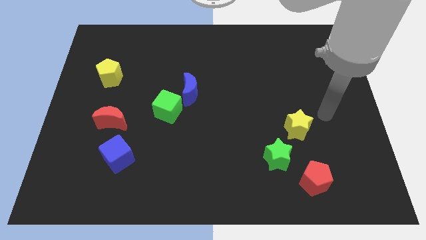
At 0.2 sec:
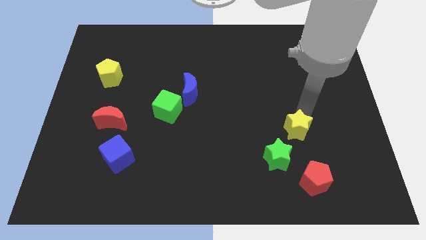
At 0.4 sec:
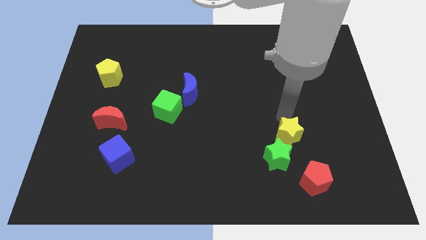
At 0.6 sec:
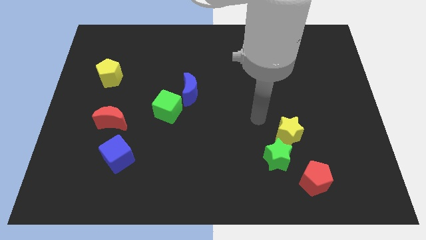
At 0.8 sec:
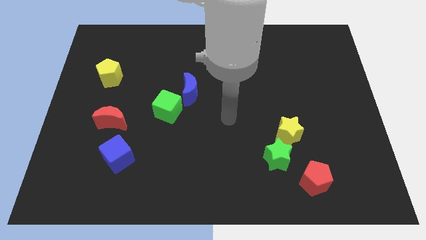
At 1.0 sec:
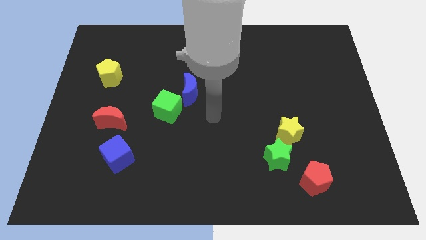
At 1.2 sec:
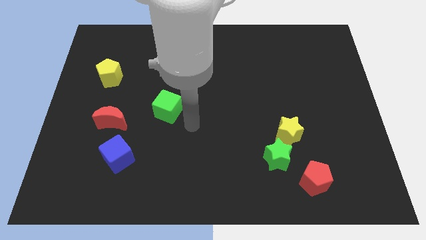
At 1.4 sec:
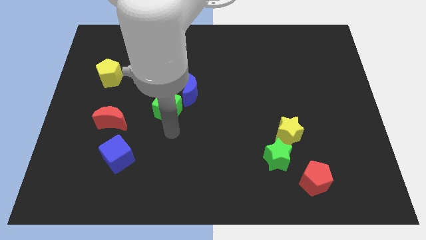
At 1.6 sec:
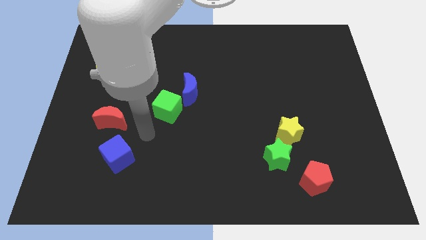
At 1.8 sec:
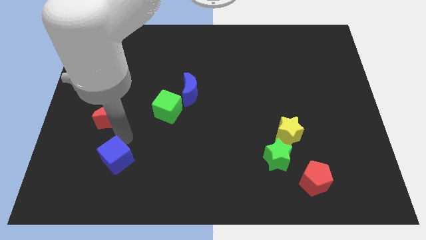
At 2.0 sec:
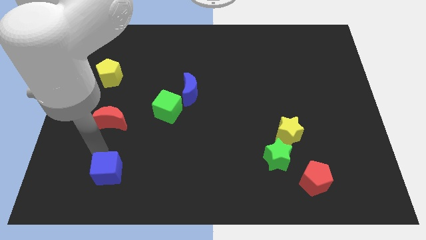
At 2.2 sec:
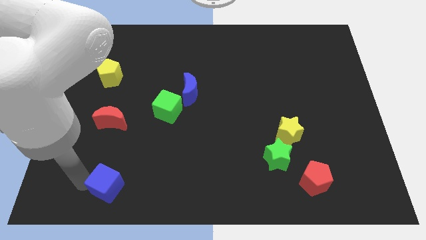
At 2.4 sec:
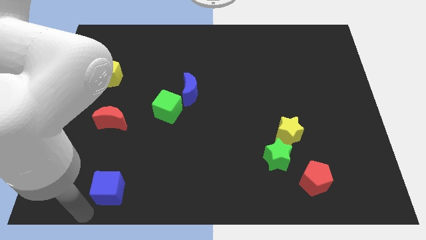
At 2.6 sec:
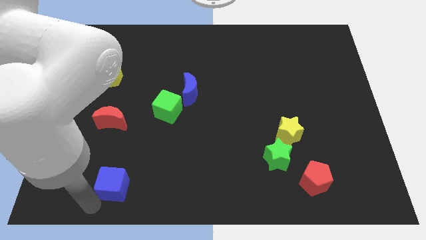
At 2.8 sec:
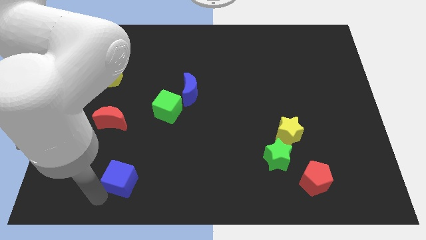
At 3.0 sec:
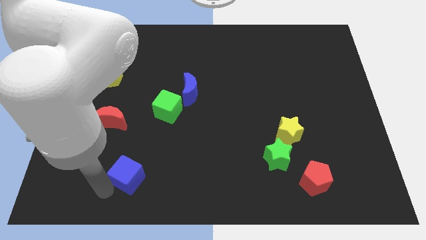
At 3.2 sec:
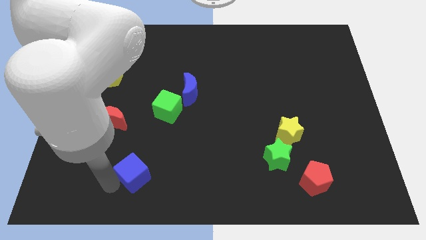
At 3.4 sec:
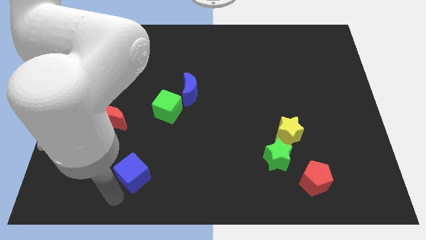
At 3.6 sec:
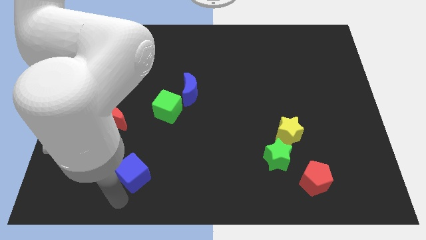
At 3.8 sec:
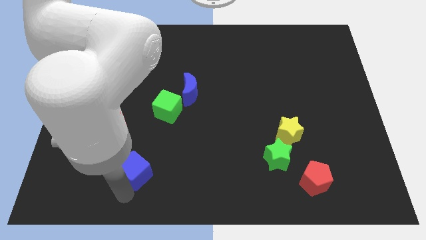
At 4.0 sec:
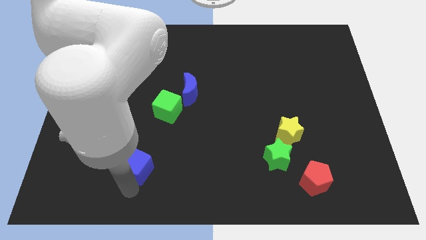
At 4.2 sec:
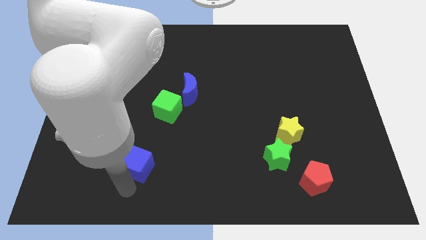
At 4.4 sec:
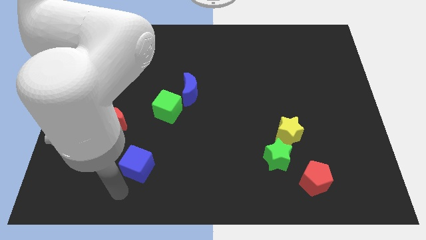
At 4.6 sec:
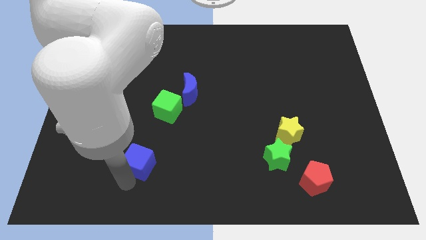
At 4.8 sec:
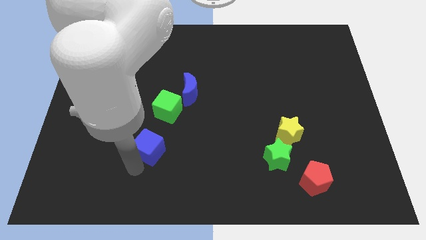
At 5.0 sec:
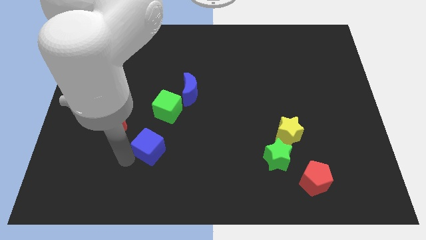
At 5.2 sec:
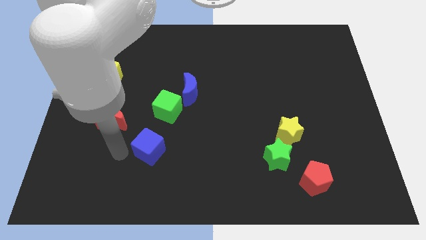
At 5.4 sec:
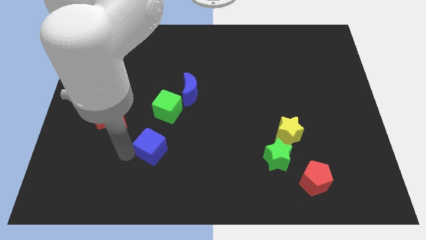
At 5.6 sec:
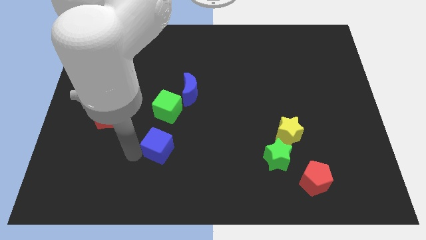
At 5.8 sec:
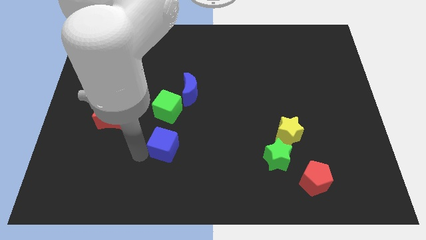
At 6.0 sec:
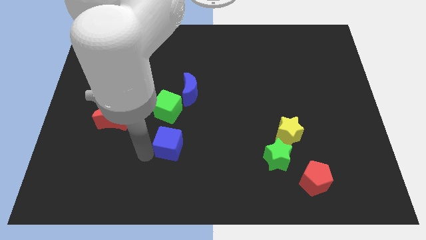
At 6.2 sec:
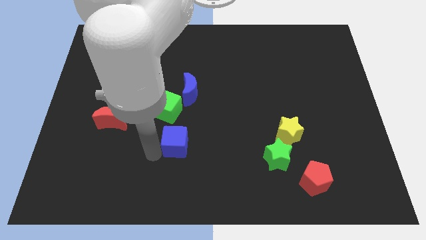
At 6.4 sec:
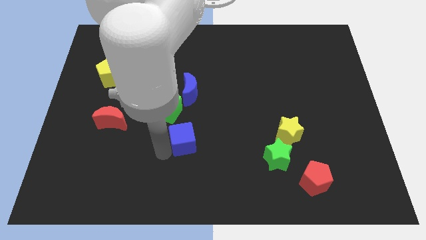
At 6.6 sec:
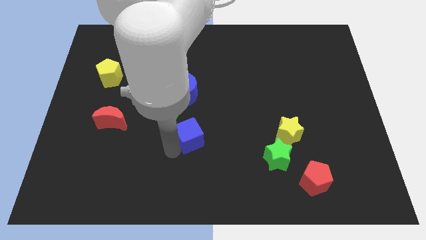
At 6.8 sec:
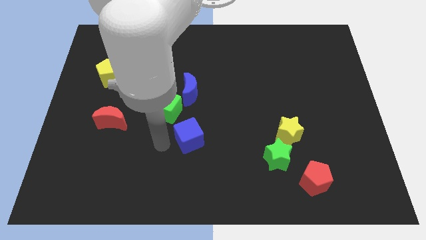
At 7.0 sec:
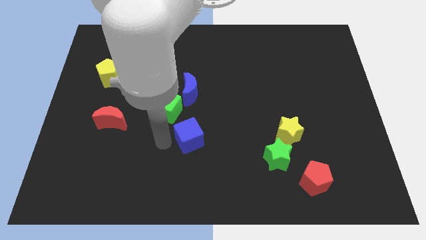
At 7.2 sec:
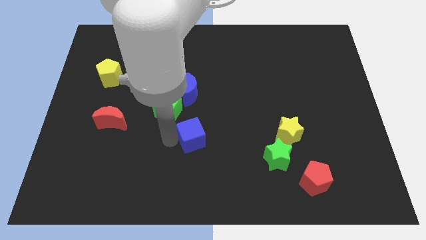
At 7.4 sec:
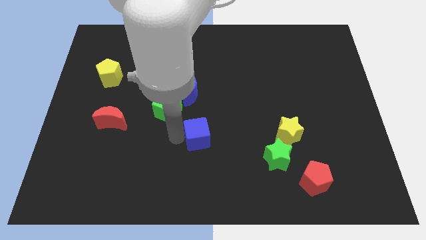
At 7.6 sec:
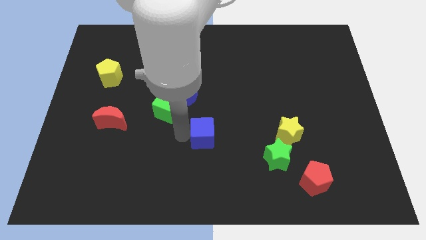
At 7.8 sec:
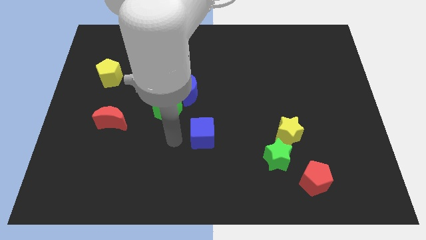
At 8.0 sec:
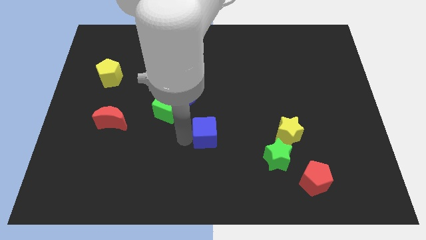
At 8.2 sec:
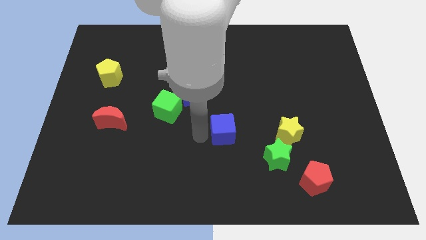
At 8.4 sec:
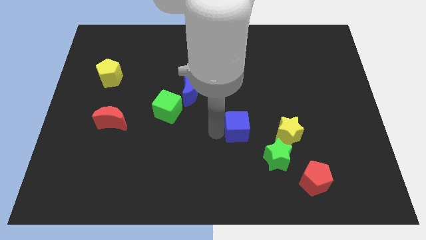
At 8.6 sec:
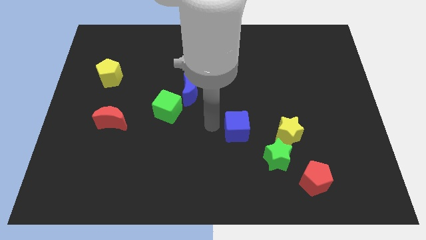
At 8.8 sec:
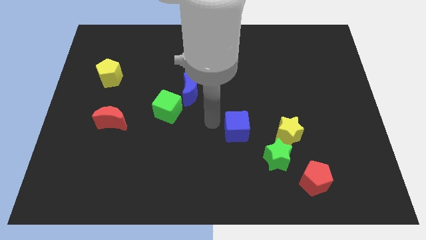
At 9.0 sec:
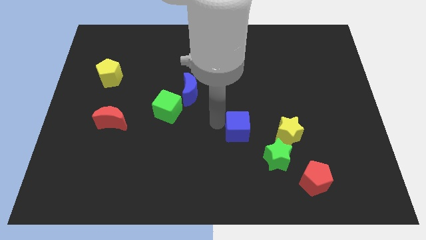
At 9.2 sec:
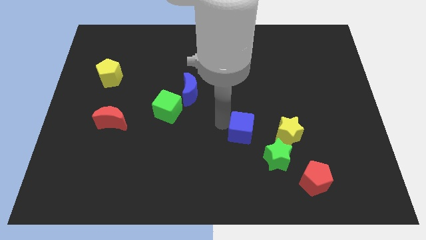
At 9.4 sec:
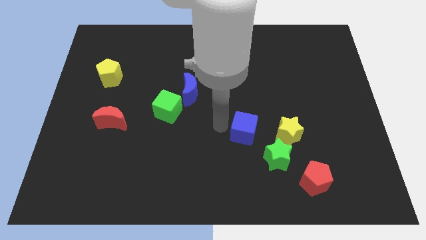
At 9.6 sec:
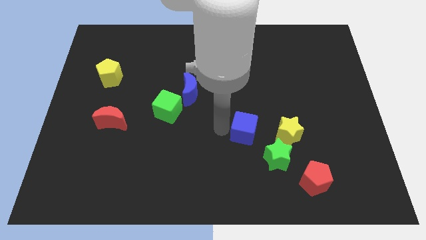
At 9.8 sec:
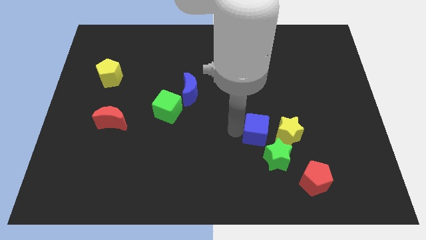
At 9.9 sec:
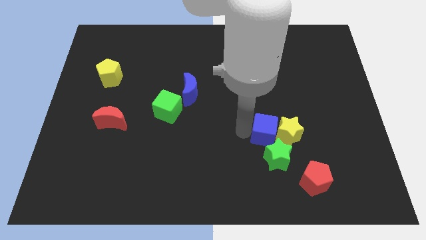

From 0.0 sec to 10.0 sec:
move the blue cube close to the yellow star

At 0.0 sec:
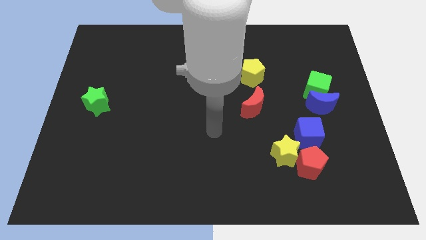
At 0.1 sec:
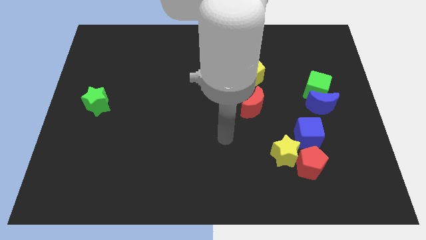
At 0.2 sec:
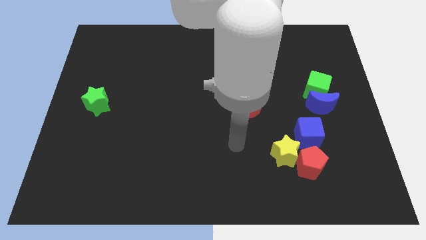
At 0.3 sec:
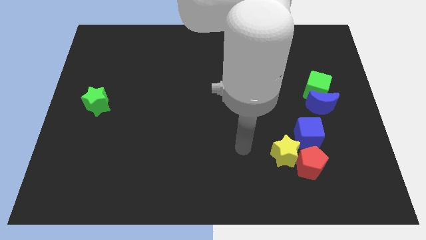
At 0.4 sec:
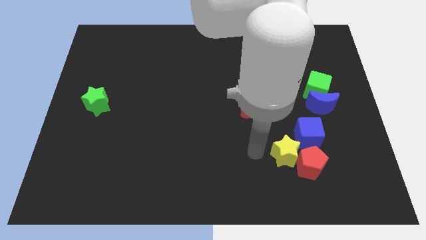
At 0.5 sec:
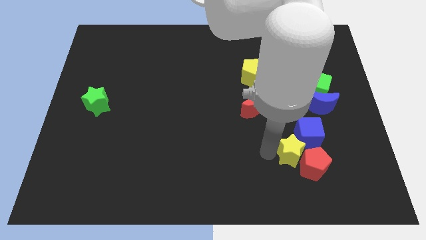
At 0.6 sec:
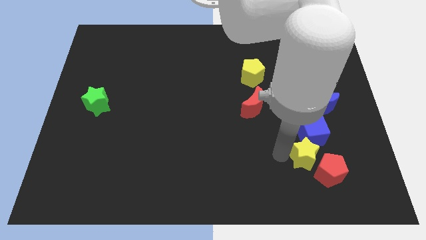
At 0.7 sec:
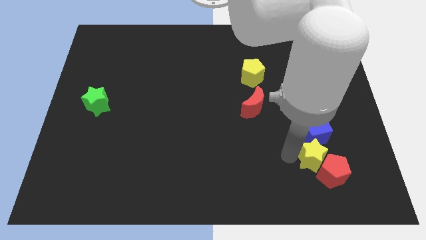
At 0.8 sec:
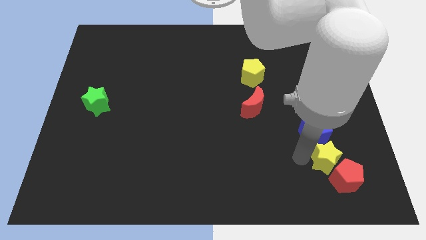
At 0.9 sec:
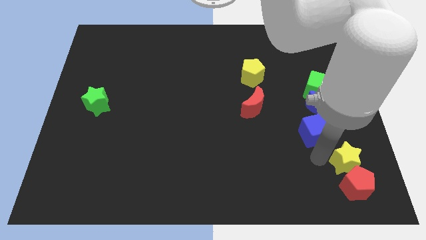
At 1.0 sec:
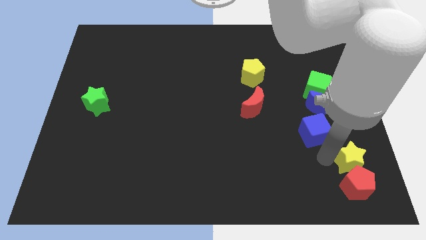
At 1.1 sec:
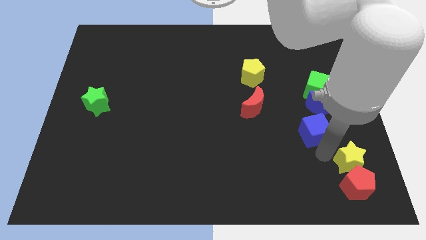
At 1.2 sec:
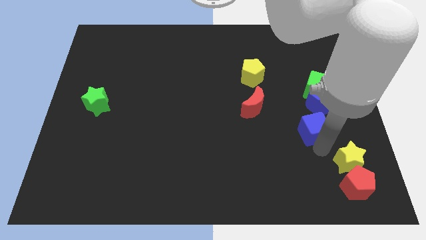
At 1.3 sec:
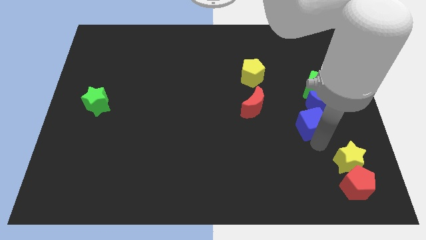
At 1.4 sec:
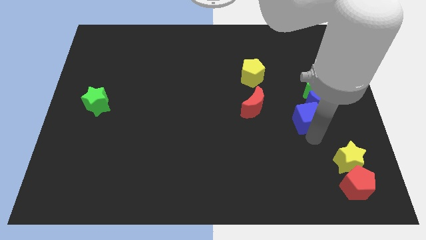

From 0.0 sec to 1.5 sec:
put the blue cube towards the blue moon

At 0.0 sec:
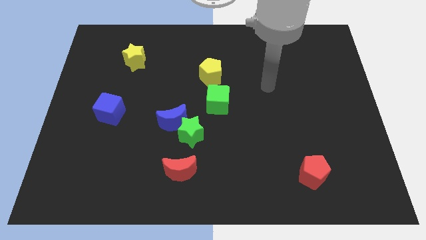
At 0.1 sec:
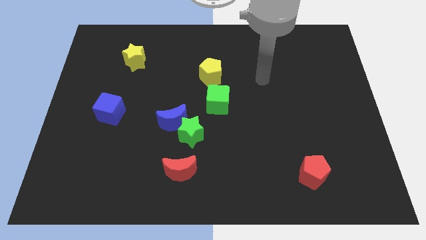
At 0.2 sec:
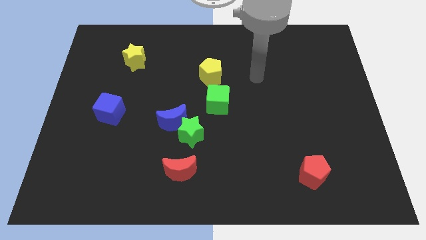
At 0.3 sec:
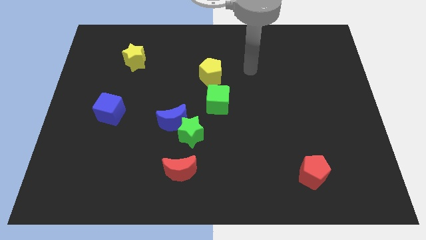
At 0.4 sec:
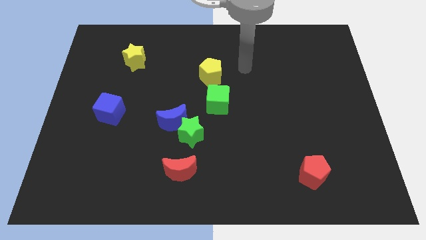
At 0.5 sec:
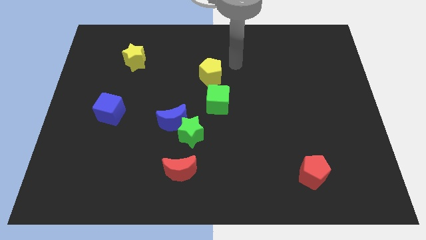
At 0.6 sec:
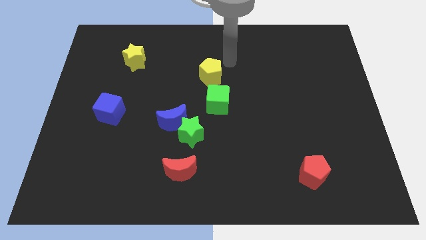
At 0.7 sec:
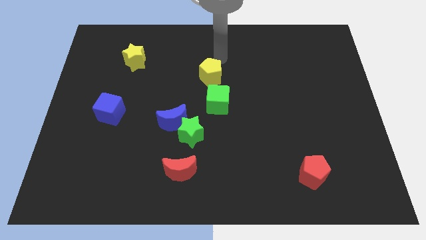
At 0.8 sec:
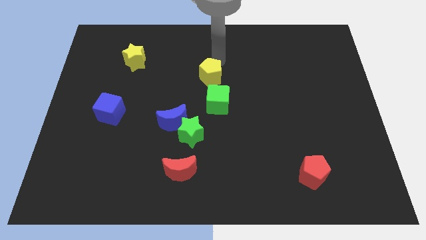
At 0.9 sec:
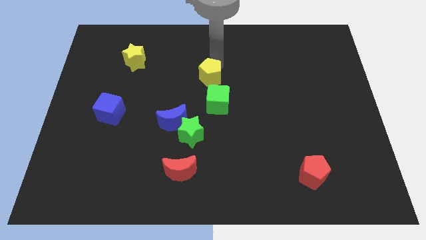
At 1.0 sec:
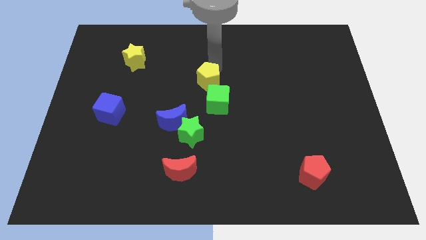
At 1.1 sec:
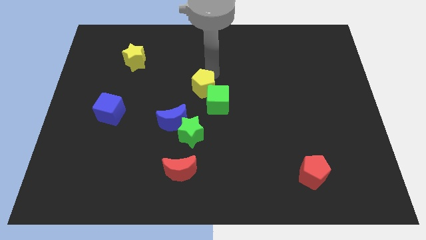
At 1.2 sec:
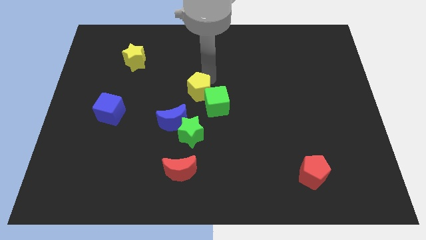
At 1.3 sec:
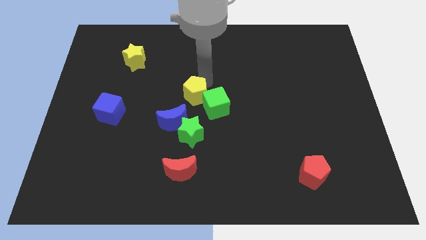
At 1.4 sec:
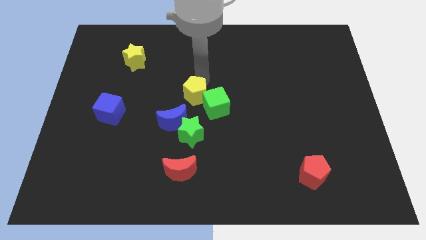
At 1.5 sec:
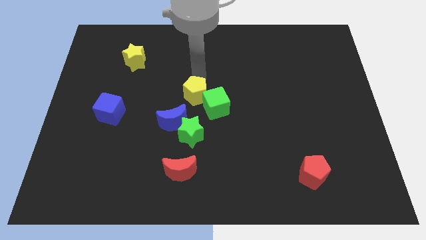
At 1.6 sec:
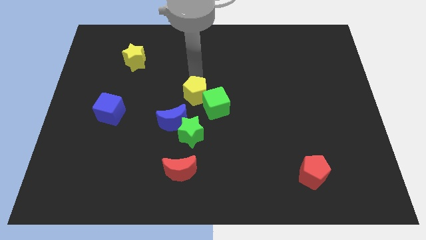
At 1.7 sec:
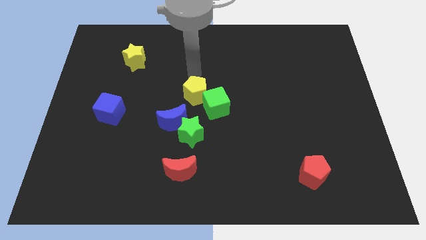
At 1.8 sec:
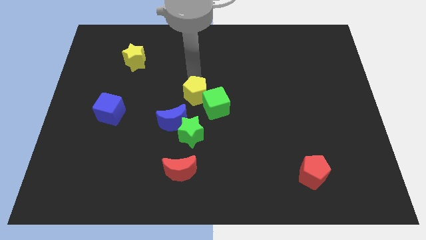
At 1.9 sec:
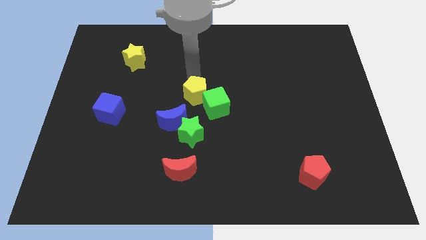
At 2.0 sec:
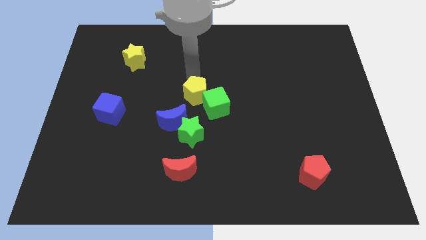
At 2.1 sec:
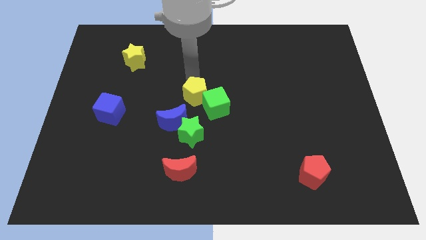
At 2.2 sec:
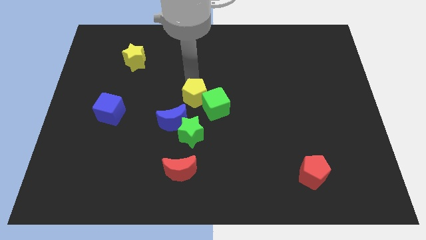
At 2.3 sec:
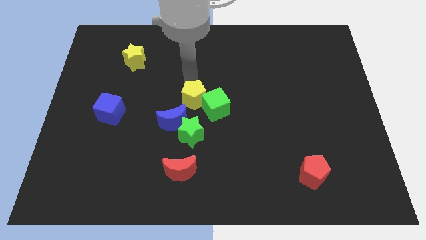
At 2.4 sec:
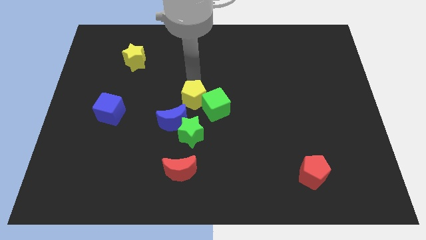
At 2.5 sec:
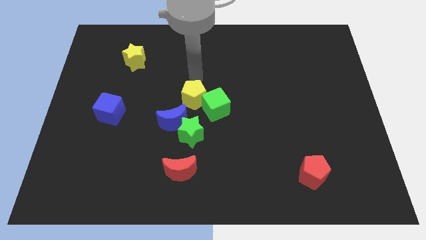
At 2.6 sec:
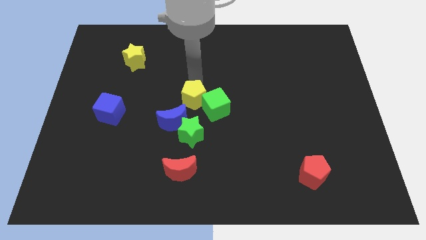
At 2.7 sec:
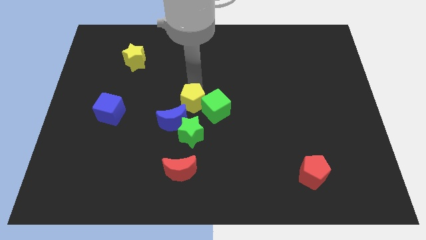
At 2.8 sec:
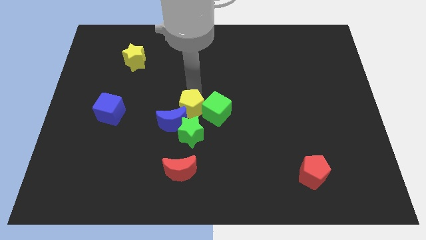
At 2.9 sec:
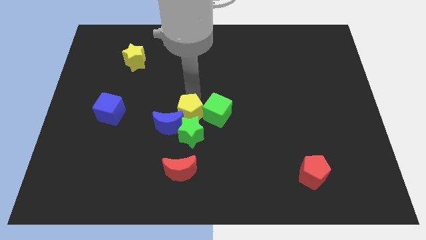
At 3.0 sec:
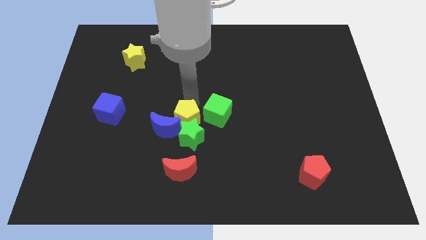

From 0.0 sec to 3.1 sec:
put the yellow pentagon towards the green star
